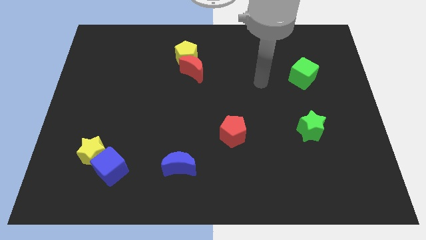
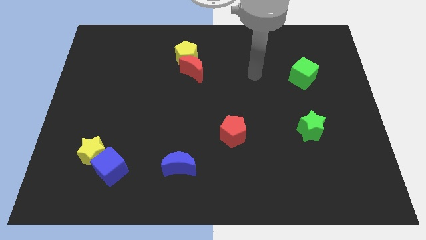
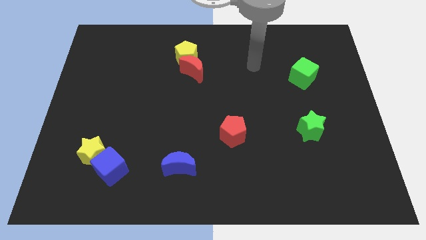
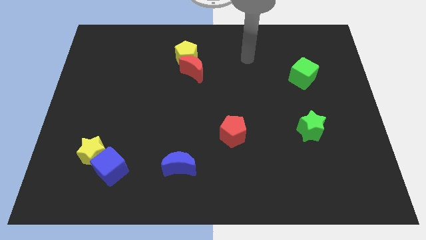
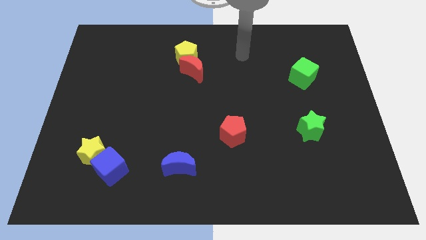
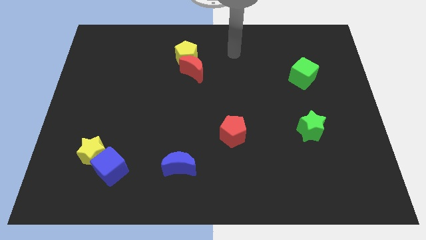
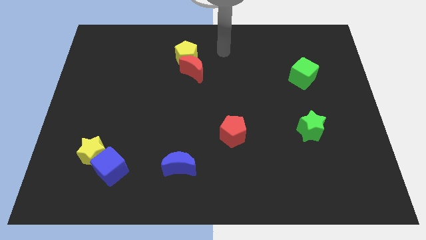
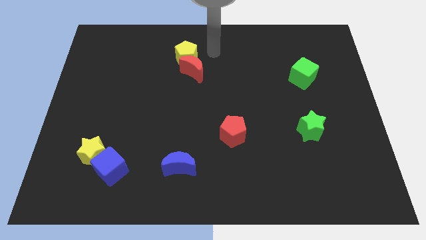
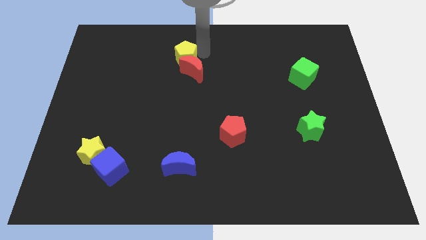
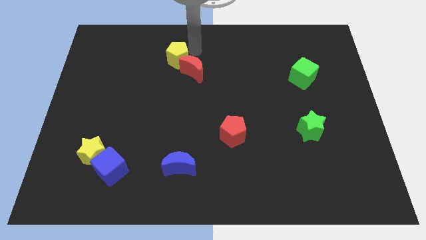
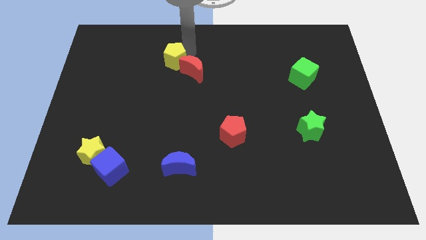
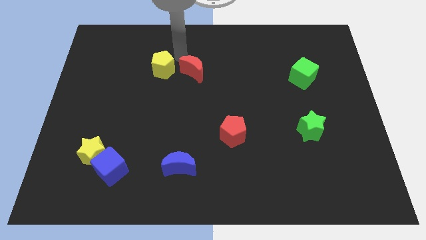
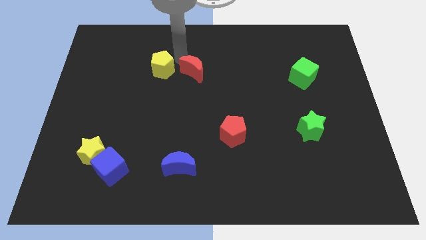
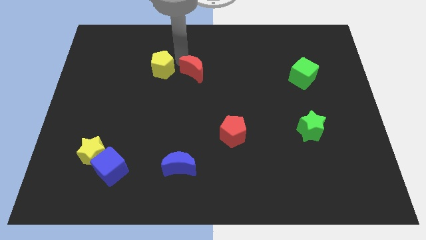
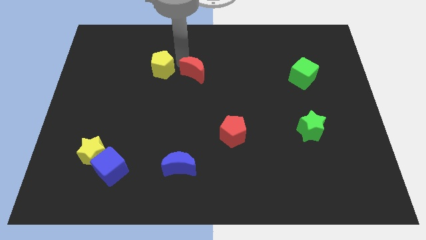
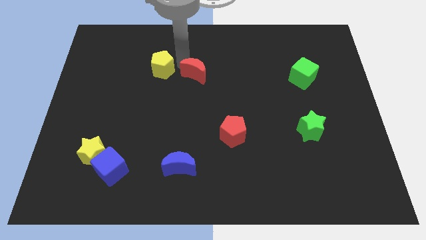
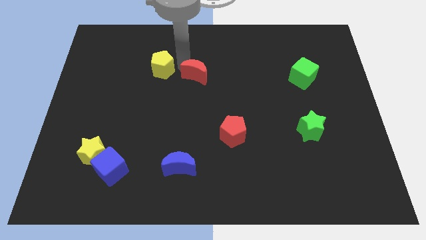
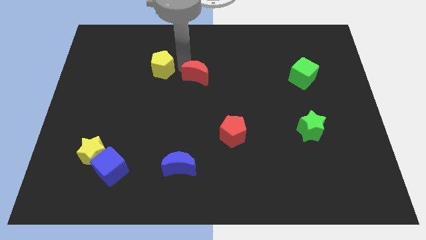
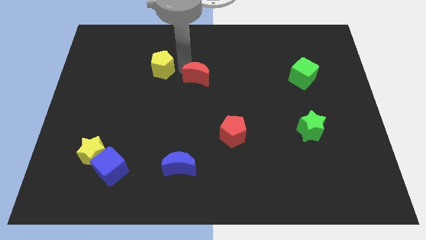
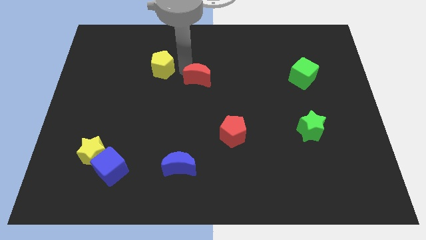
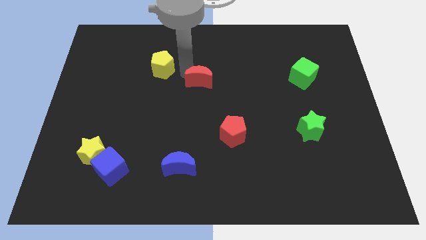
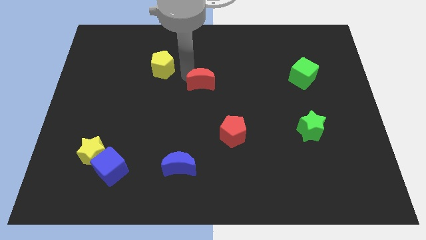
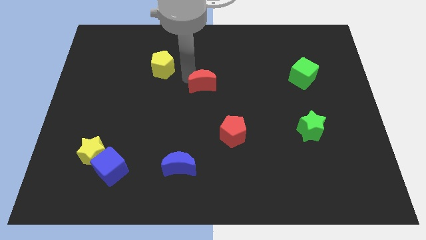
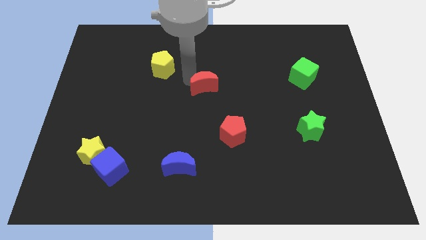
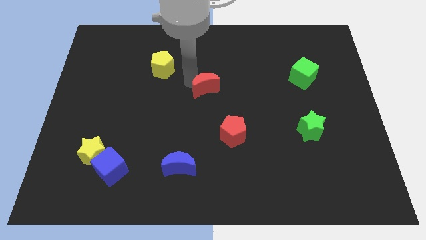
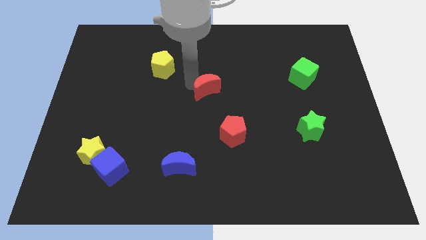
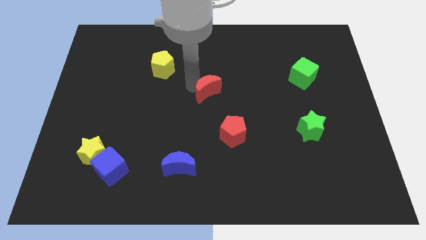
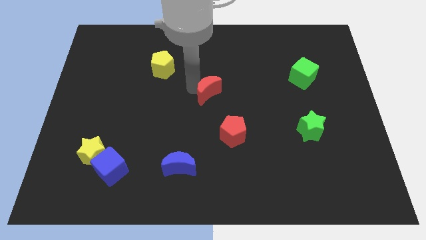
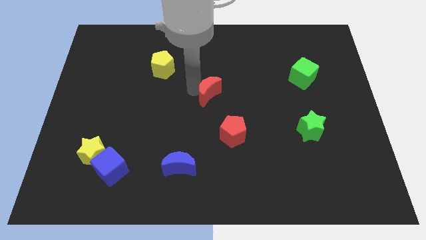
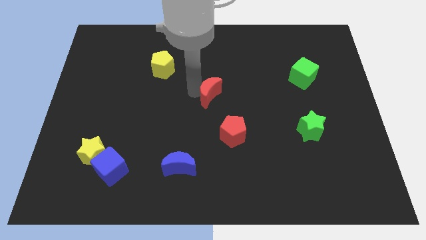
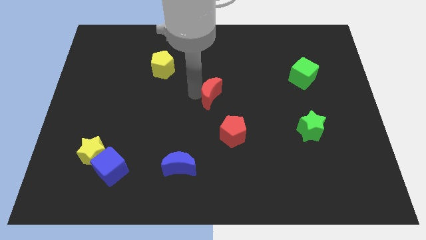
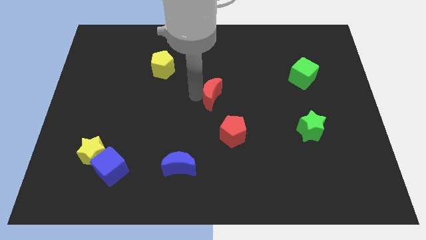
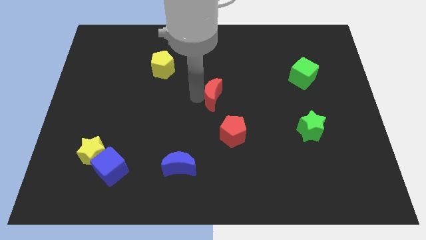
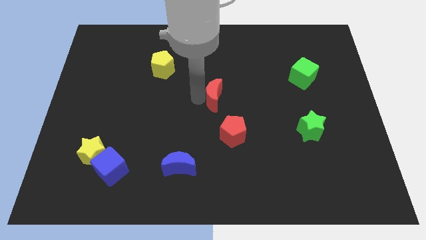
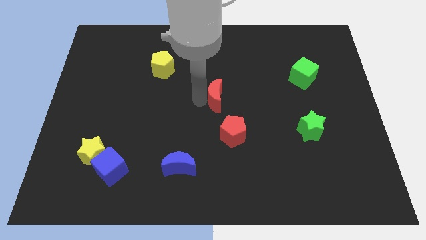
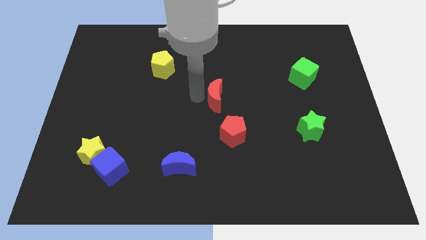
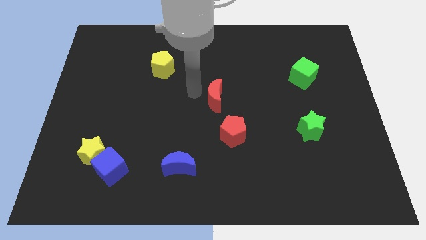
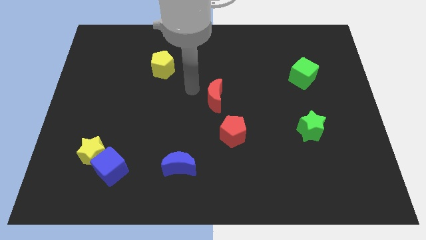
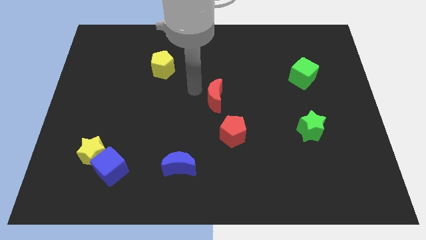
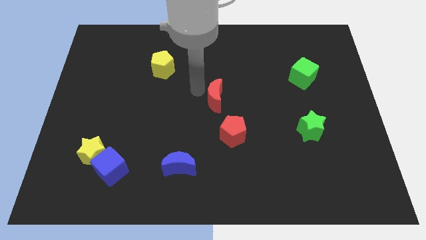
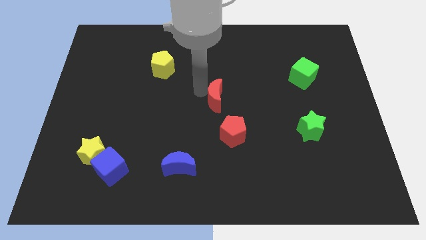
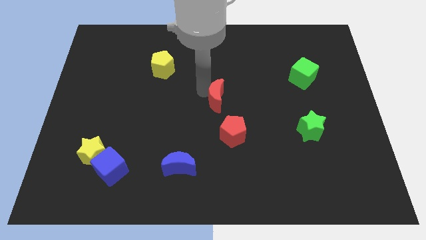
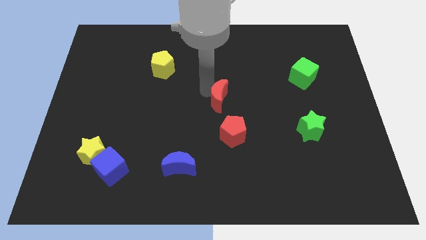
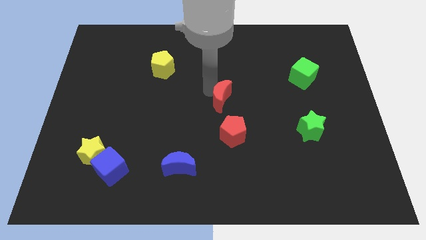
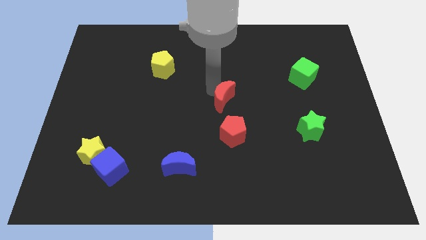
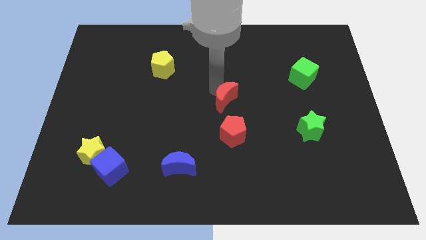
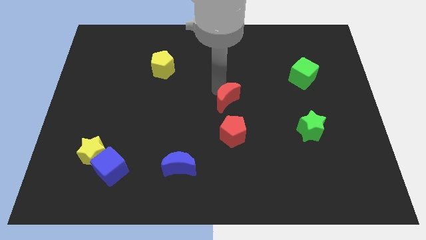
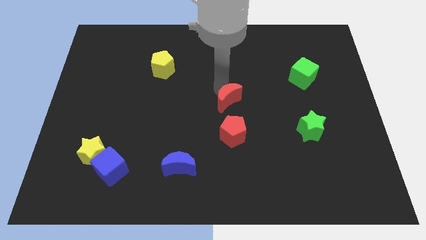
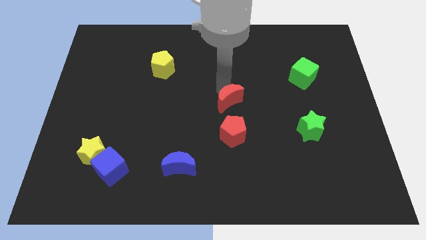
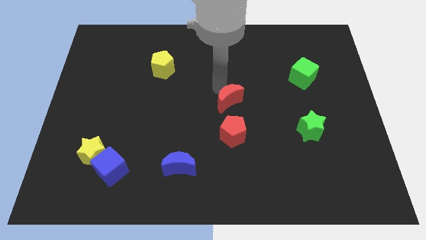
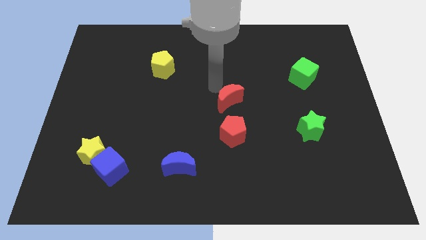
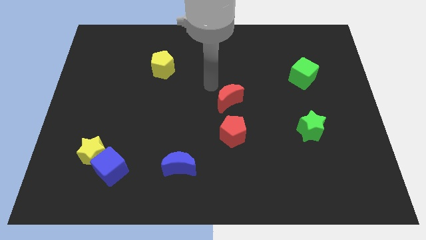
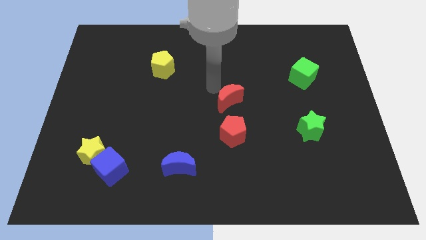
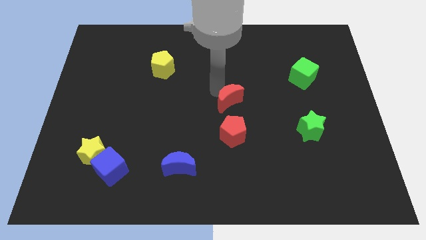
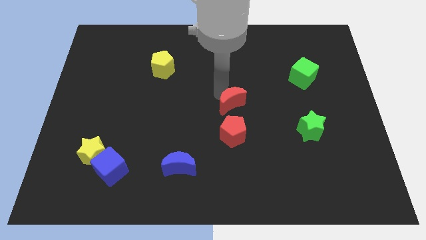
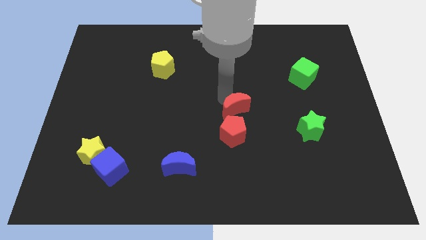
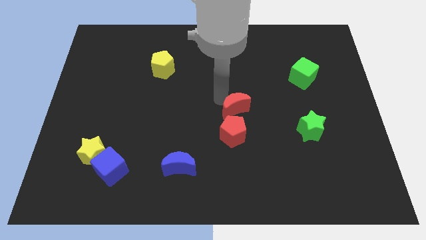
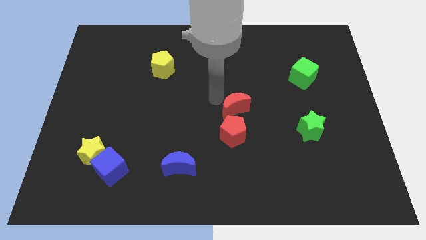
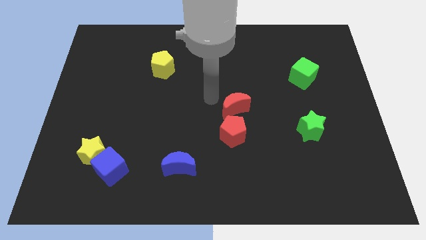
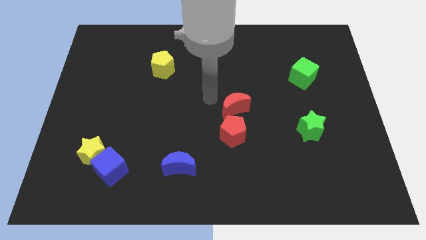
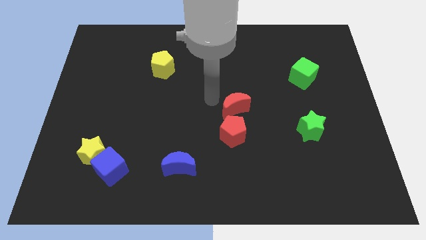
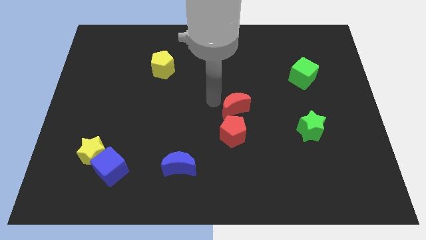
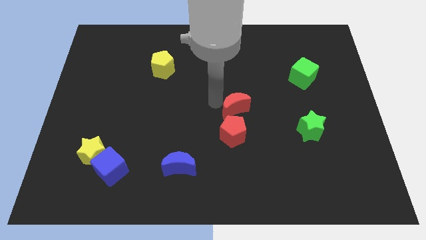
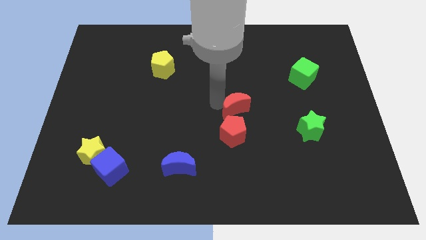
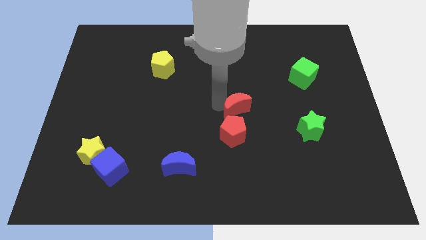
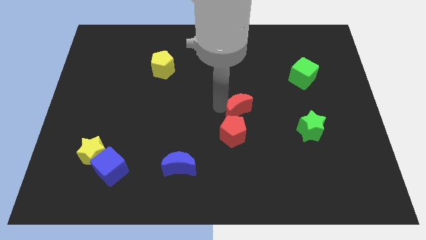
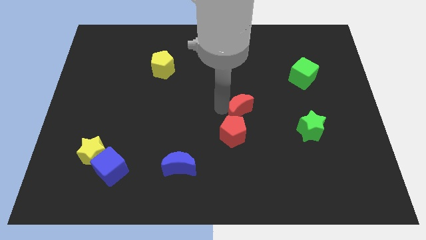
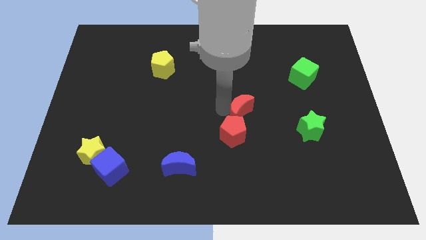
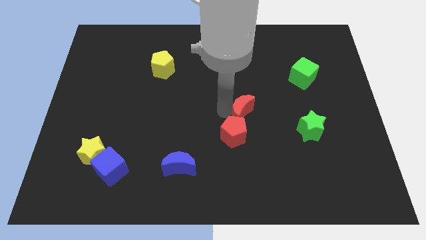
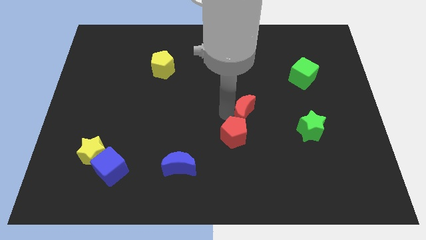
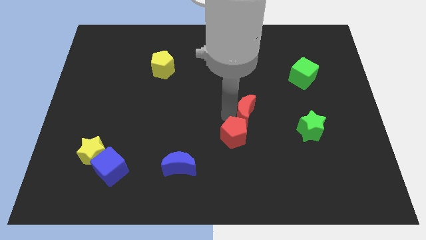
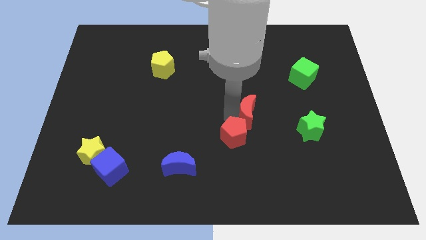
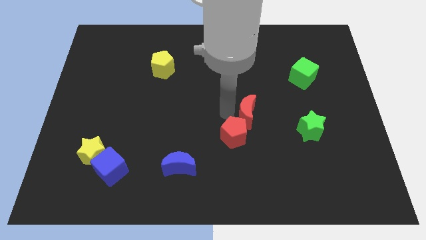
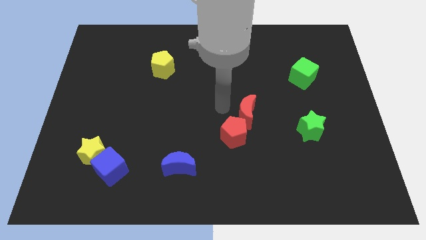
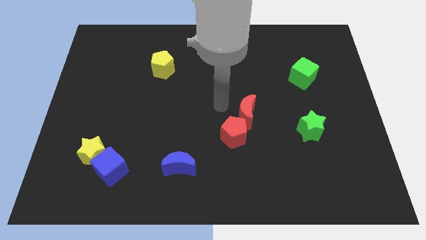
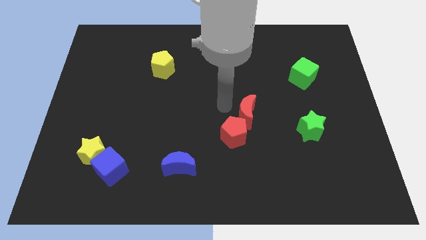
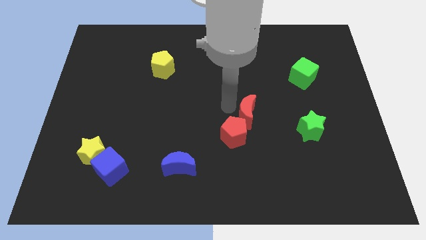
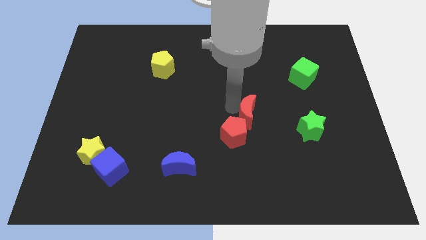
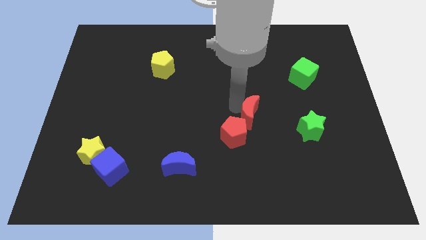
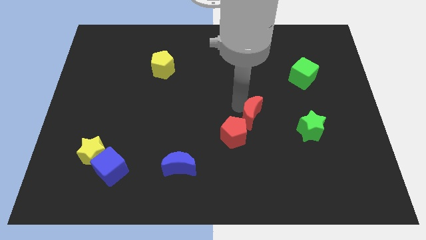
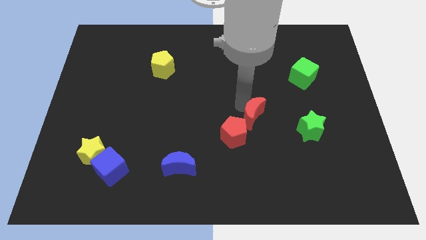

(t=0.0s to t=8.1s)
slide the red moon down and then right
